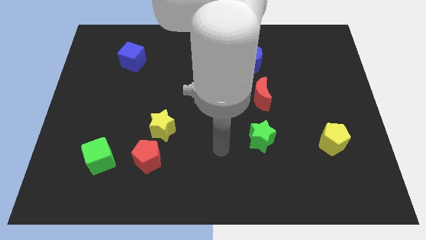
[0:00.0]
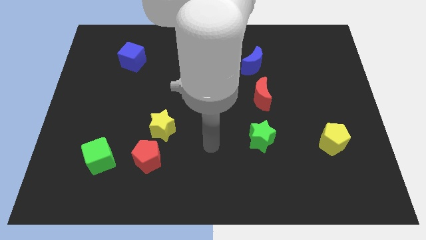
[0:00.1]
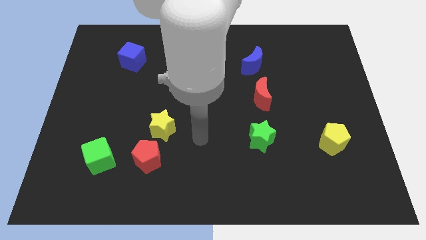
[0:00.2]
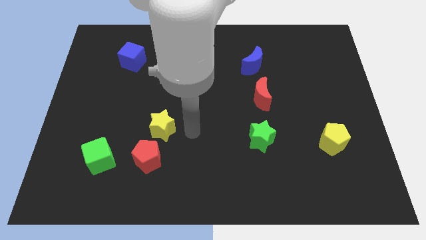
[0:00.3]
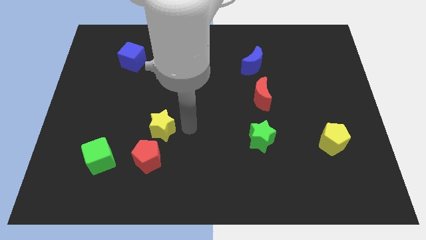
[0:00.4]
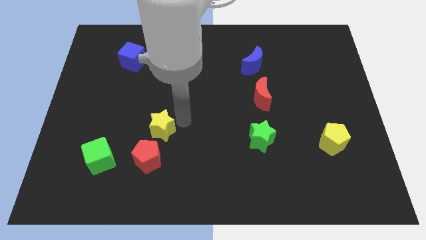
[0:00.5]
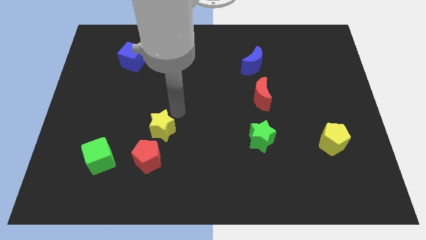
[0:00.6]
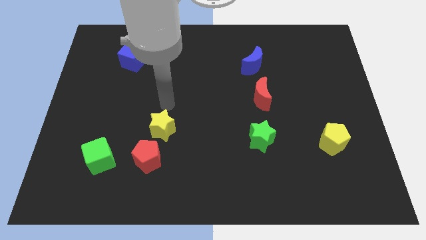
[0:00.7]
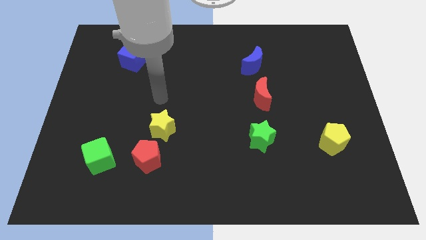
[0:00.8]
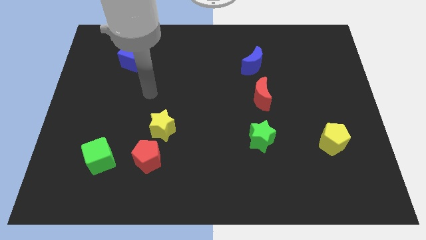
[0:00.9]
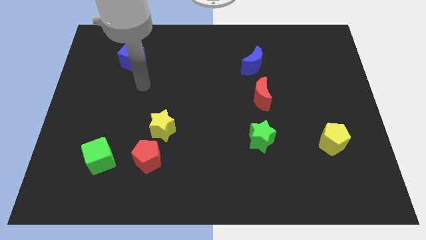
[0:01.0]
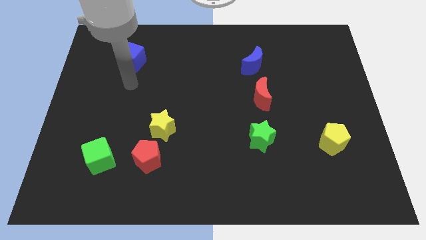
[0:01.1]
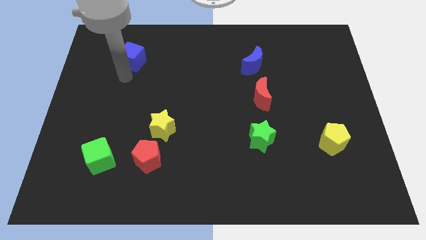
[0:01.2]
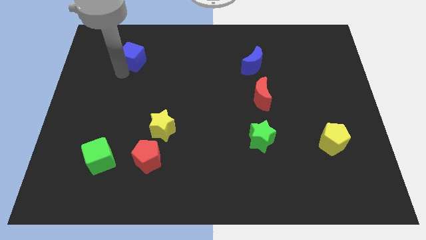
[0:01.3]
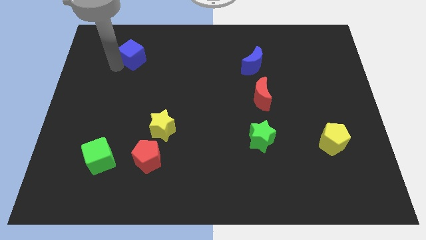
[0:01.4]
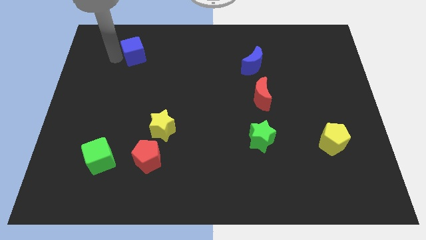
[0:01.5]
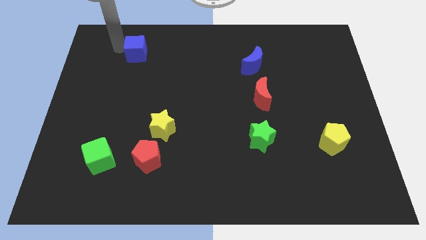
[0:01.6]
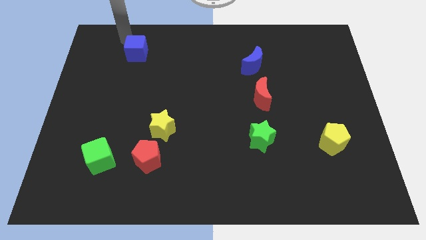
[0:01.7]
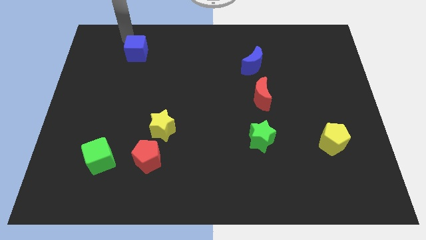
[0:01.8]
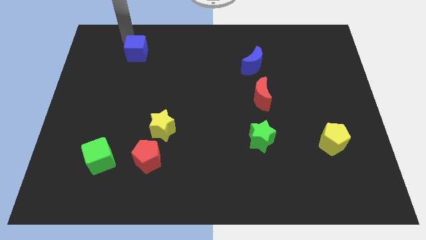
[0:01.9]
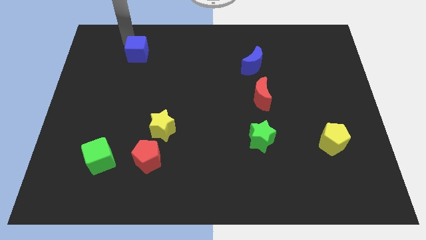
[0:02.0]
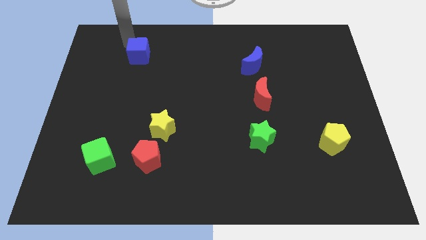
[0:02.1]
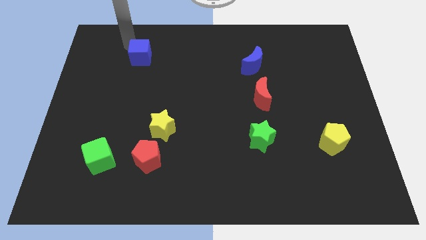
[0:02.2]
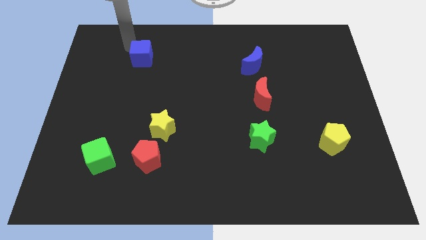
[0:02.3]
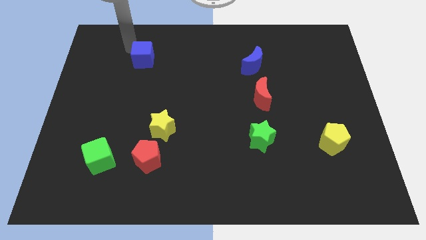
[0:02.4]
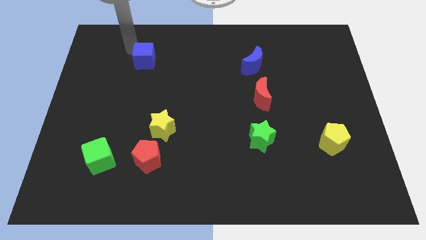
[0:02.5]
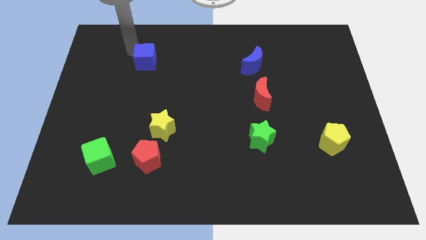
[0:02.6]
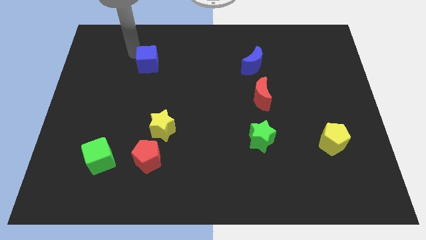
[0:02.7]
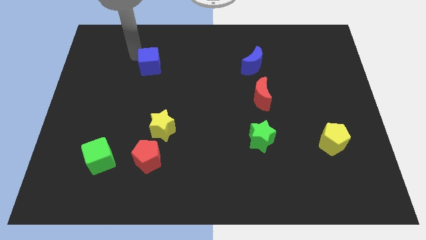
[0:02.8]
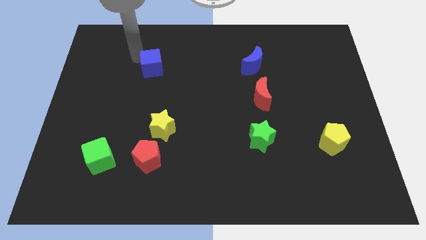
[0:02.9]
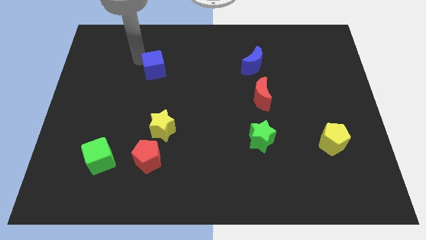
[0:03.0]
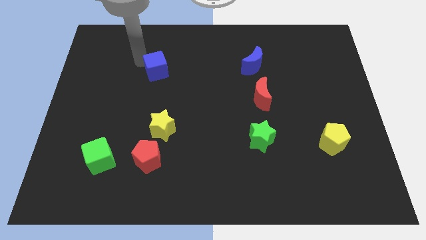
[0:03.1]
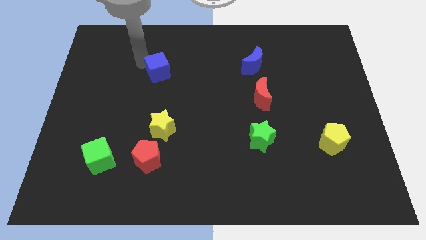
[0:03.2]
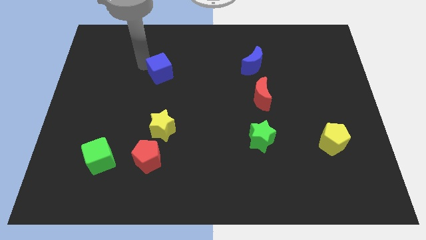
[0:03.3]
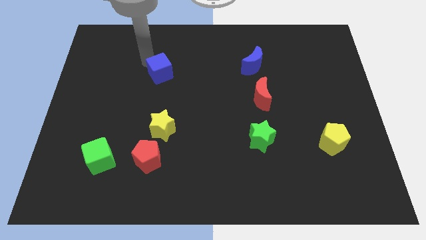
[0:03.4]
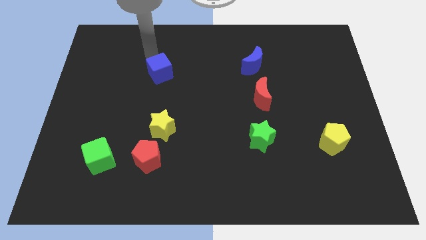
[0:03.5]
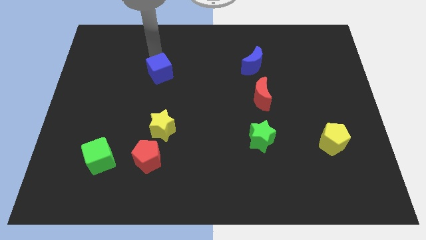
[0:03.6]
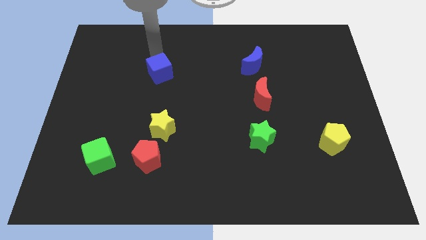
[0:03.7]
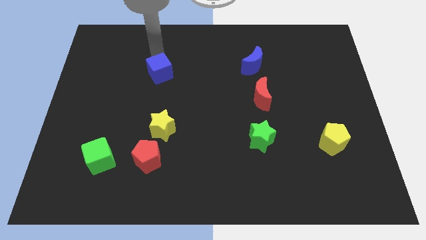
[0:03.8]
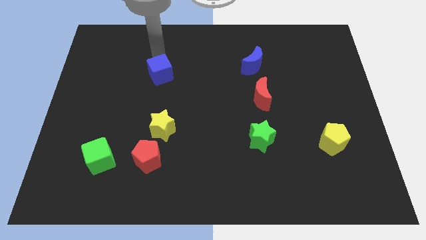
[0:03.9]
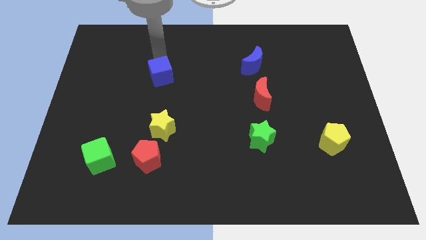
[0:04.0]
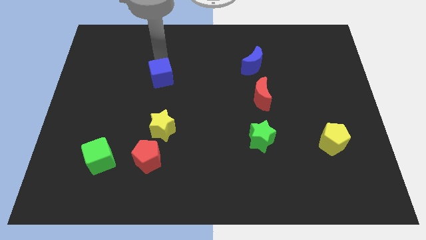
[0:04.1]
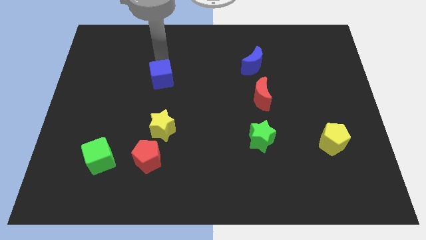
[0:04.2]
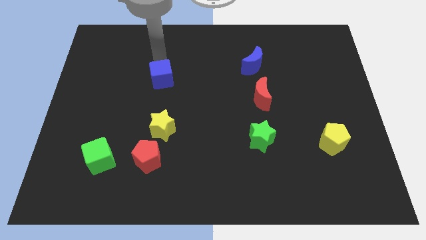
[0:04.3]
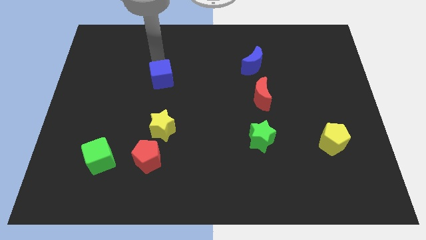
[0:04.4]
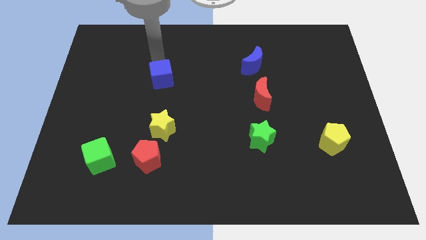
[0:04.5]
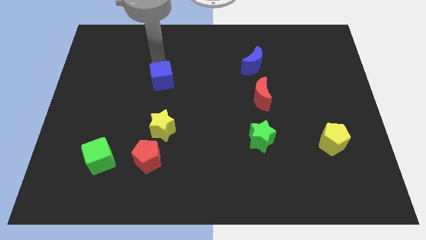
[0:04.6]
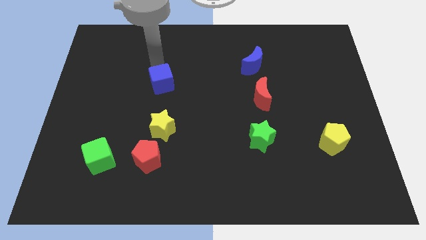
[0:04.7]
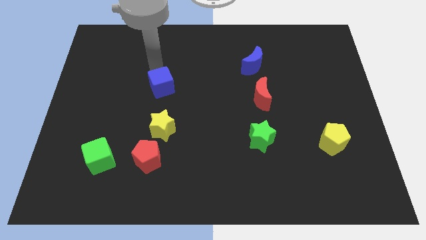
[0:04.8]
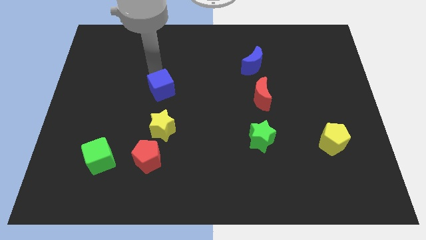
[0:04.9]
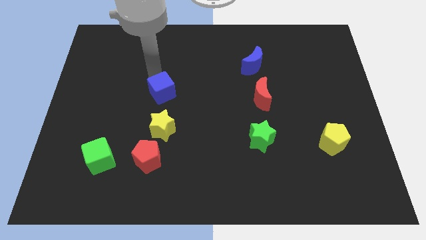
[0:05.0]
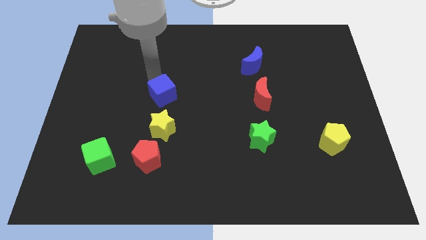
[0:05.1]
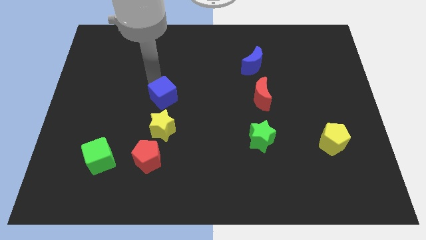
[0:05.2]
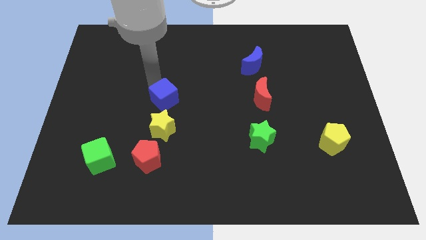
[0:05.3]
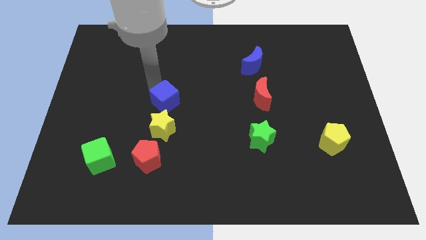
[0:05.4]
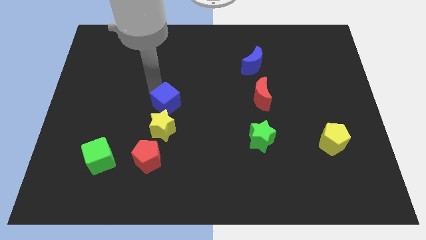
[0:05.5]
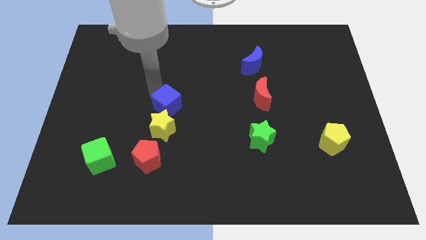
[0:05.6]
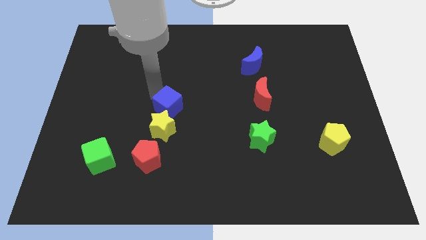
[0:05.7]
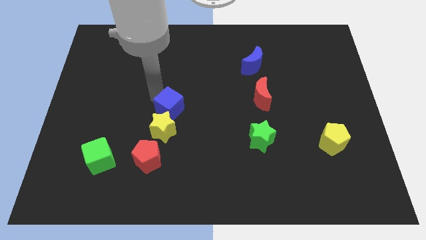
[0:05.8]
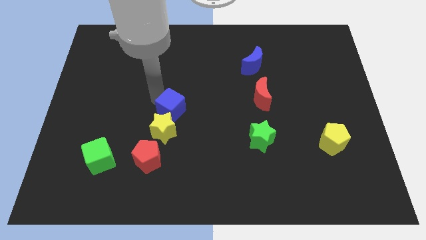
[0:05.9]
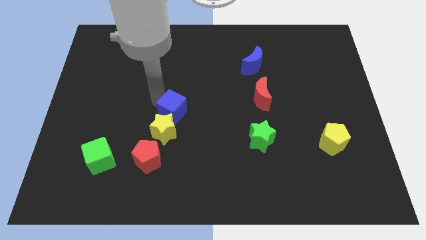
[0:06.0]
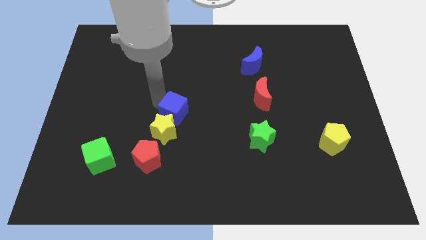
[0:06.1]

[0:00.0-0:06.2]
push the blue cube downwards and then right

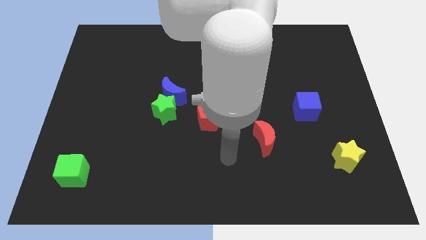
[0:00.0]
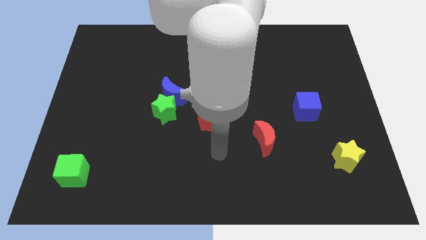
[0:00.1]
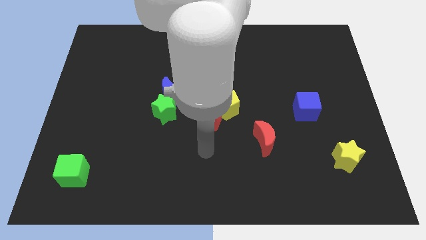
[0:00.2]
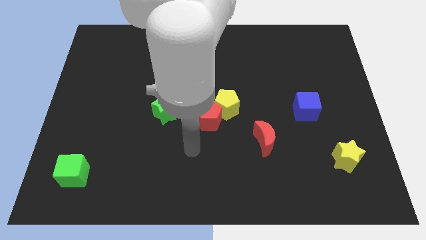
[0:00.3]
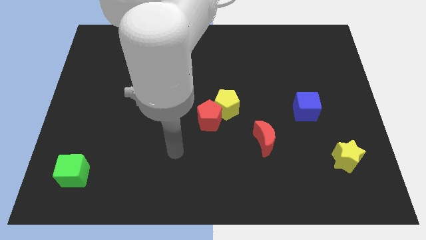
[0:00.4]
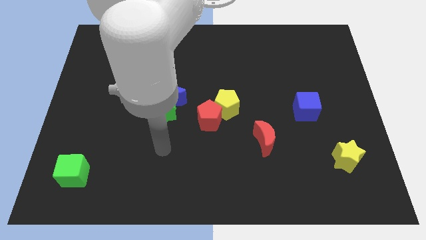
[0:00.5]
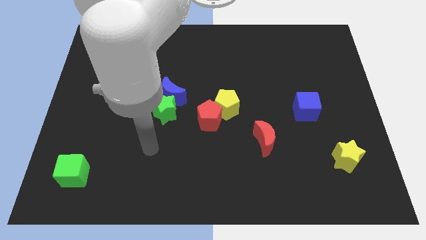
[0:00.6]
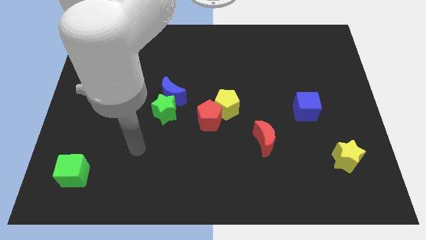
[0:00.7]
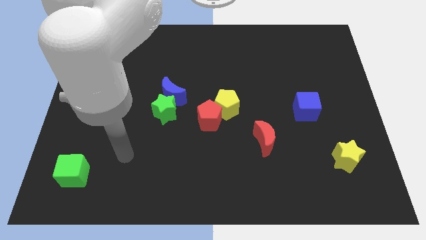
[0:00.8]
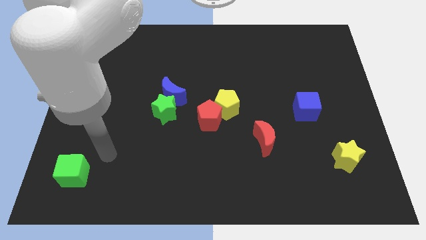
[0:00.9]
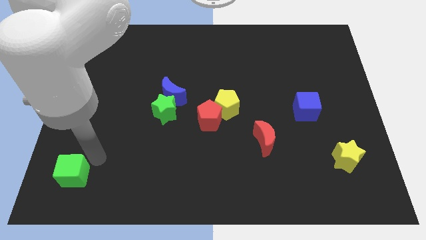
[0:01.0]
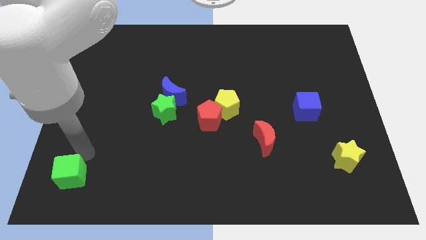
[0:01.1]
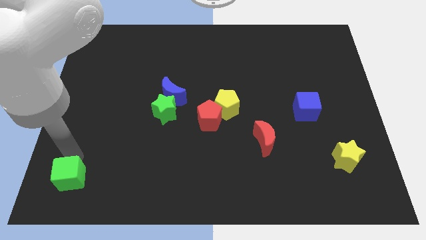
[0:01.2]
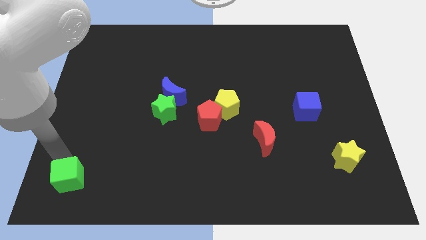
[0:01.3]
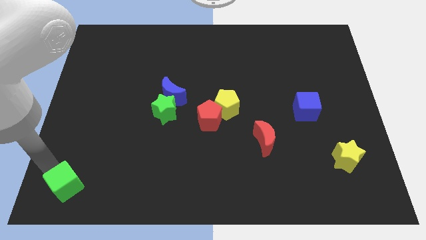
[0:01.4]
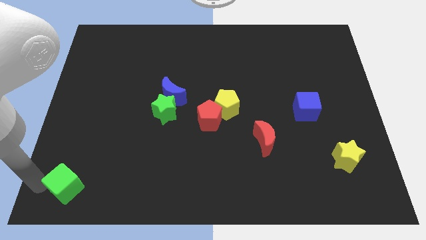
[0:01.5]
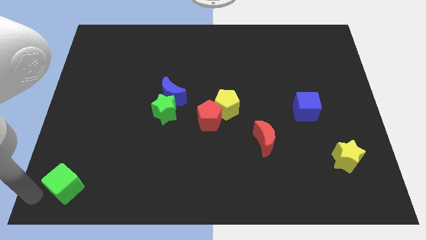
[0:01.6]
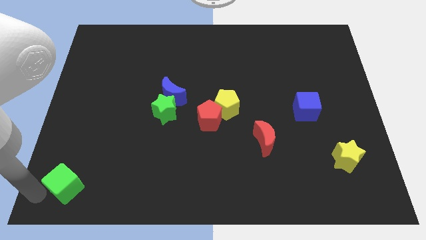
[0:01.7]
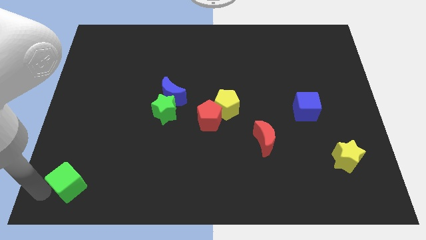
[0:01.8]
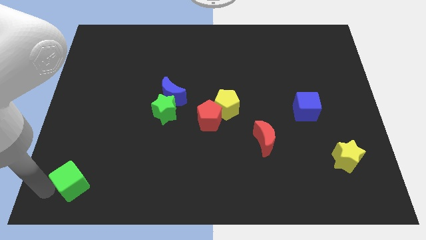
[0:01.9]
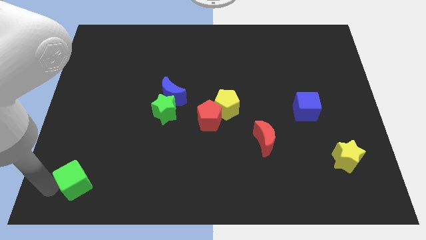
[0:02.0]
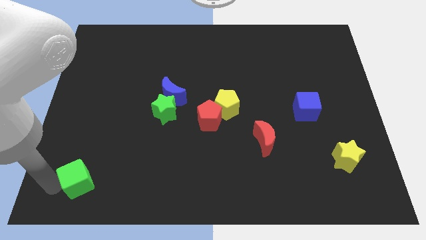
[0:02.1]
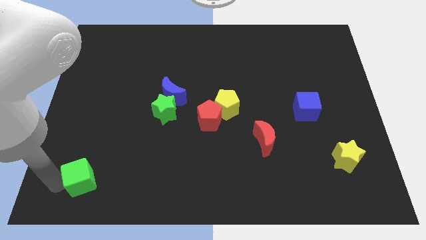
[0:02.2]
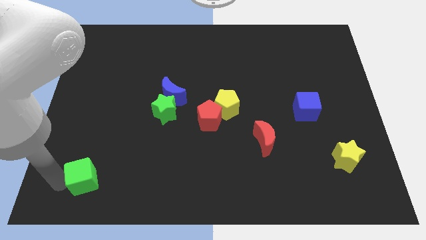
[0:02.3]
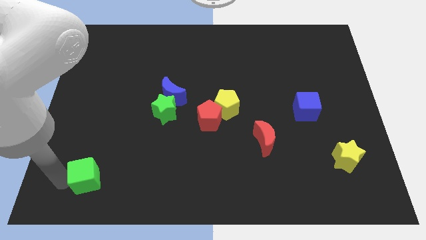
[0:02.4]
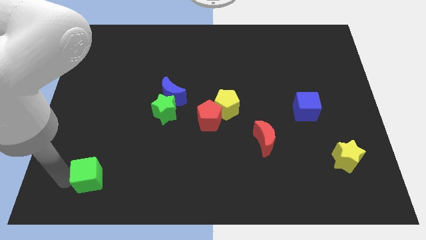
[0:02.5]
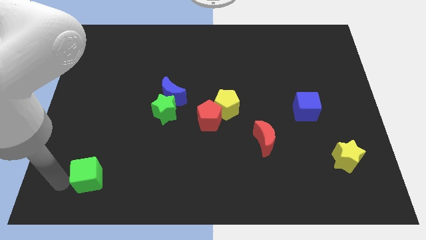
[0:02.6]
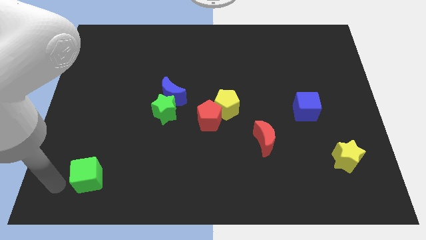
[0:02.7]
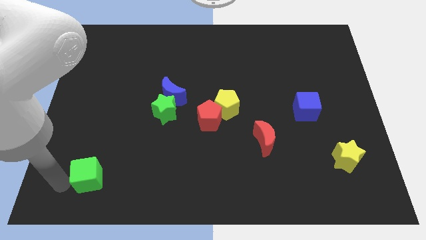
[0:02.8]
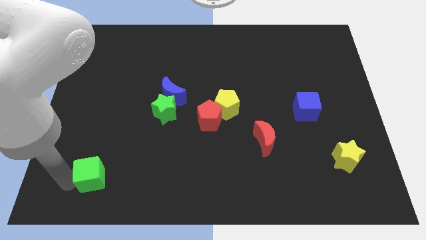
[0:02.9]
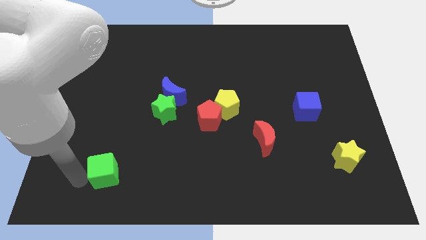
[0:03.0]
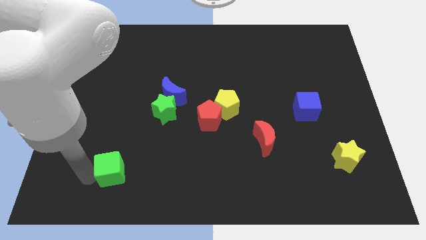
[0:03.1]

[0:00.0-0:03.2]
slide the green cube to the right slightly
